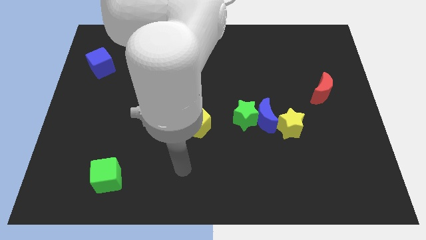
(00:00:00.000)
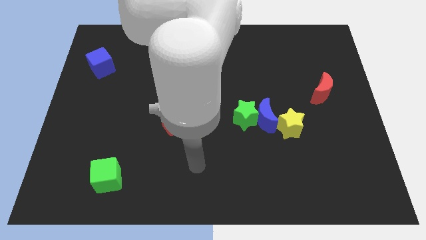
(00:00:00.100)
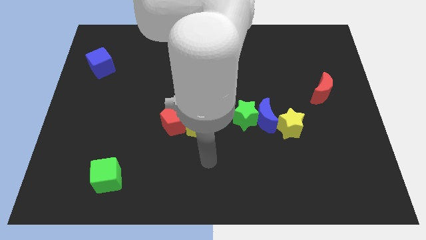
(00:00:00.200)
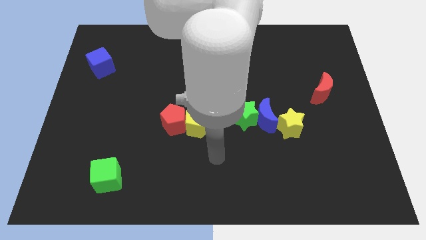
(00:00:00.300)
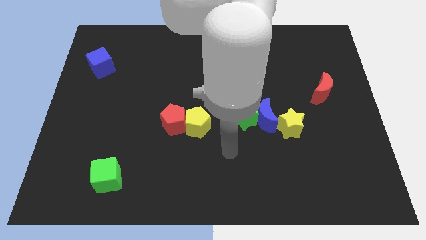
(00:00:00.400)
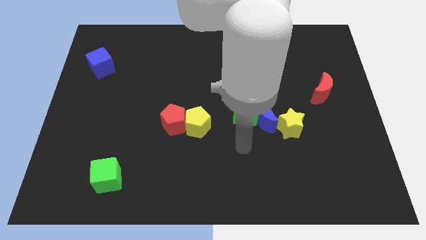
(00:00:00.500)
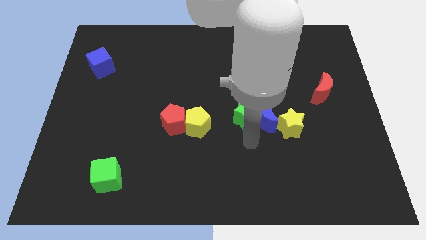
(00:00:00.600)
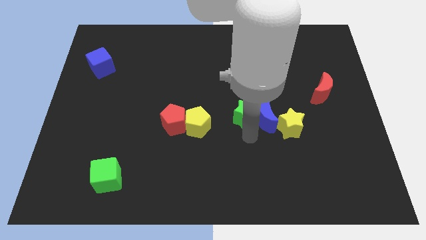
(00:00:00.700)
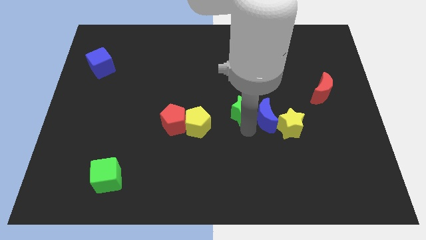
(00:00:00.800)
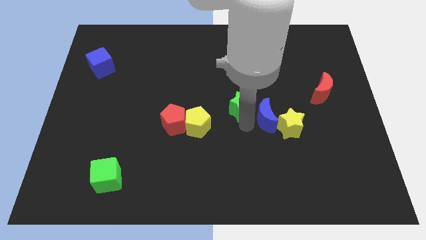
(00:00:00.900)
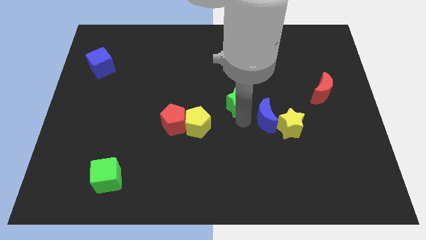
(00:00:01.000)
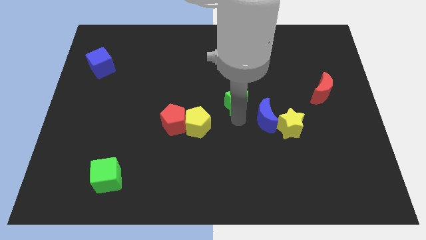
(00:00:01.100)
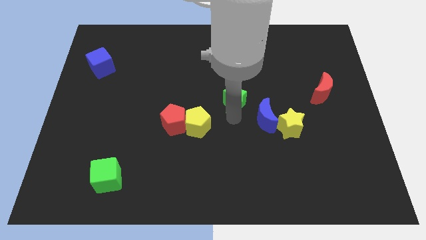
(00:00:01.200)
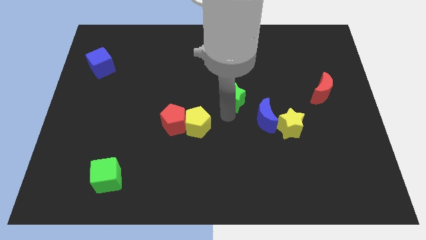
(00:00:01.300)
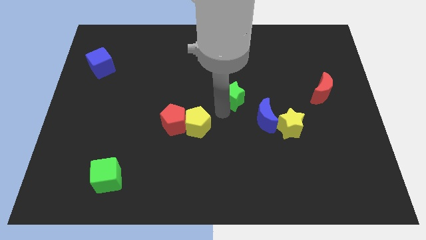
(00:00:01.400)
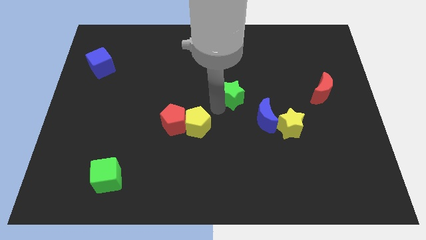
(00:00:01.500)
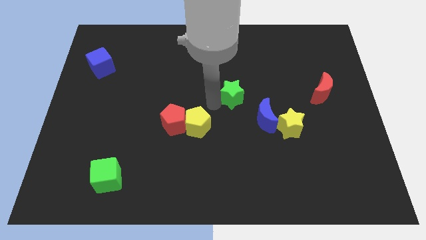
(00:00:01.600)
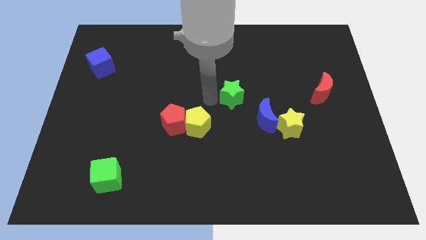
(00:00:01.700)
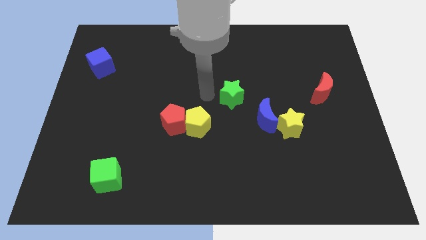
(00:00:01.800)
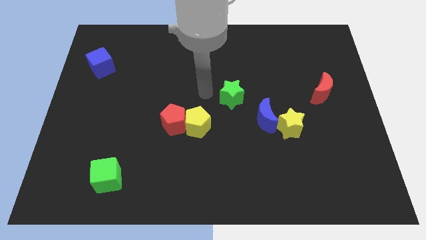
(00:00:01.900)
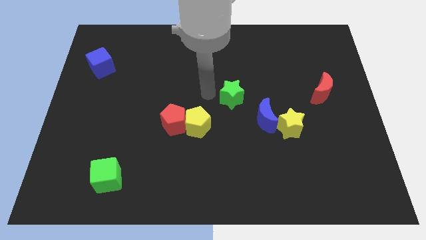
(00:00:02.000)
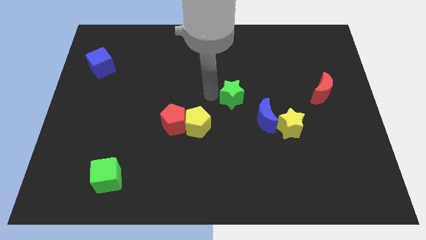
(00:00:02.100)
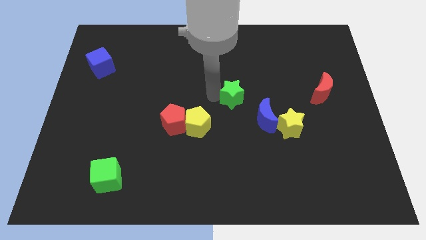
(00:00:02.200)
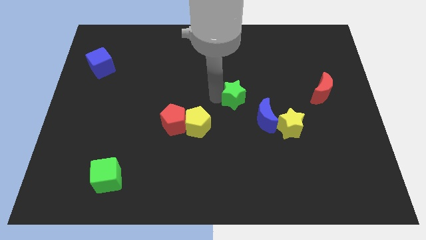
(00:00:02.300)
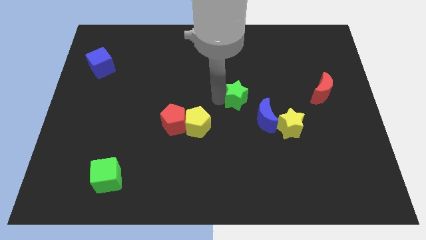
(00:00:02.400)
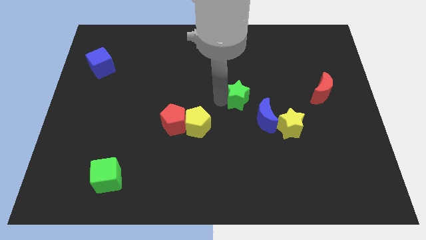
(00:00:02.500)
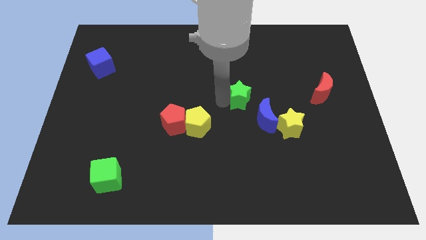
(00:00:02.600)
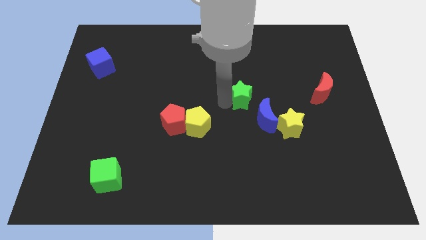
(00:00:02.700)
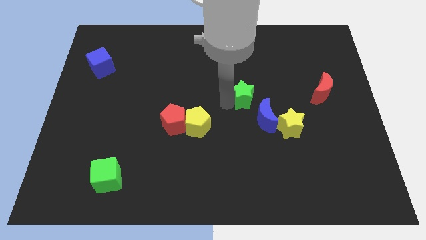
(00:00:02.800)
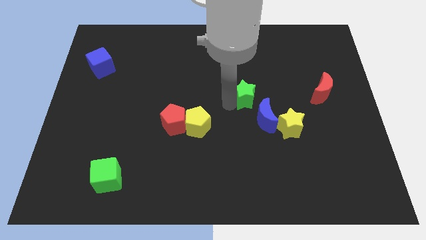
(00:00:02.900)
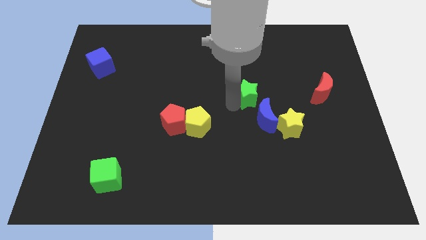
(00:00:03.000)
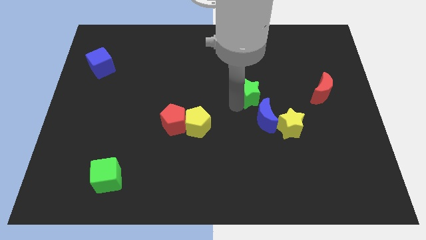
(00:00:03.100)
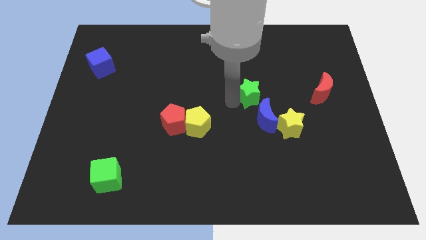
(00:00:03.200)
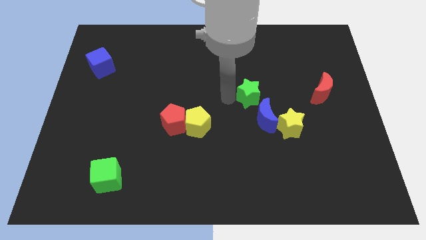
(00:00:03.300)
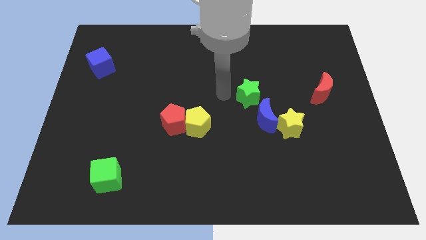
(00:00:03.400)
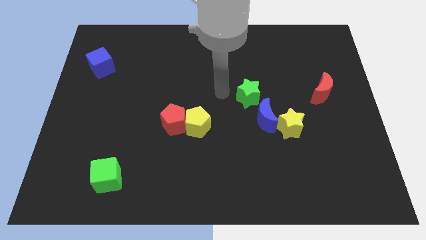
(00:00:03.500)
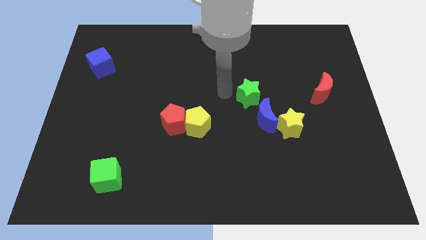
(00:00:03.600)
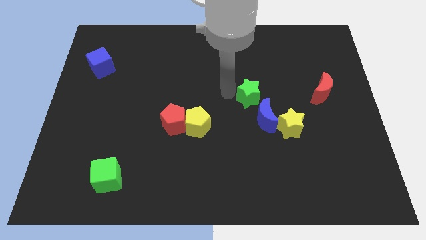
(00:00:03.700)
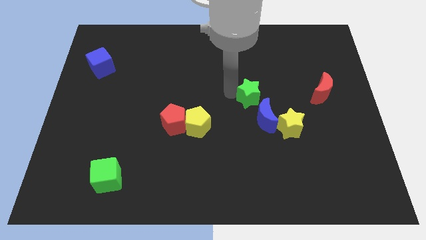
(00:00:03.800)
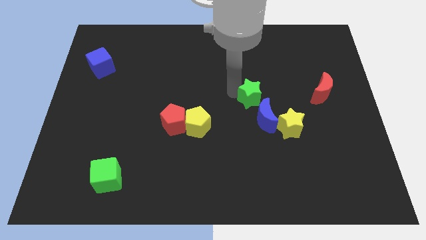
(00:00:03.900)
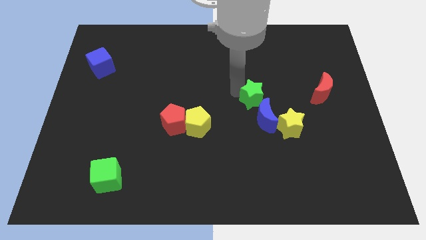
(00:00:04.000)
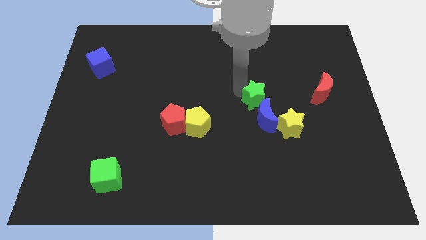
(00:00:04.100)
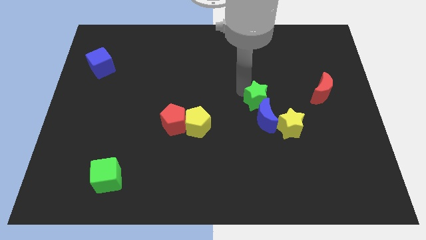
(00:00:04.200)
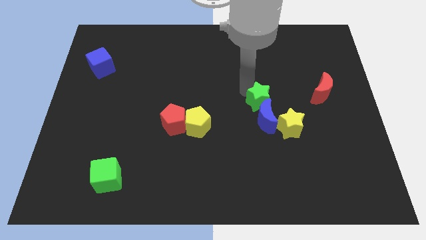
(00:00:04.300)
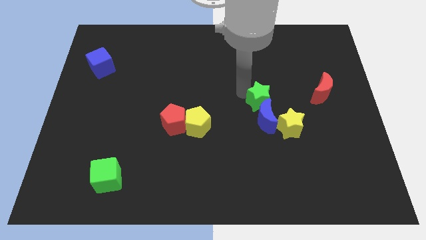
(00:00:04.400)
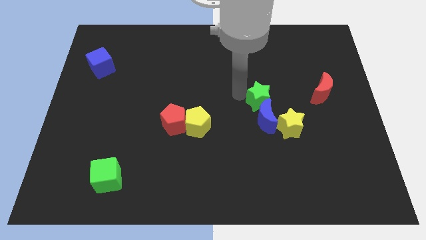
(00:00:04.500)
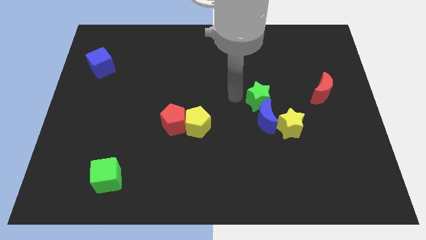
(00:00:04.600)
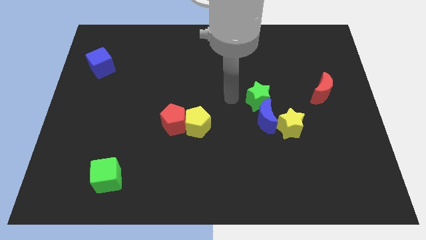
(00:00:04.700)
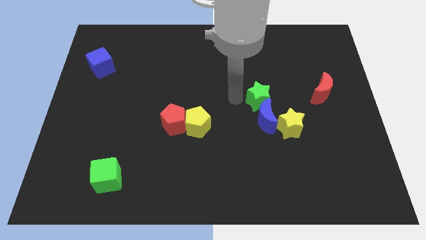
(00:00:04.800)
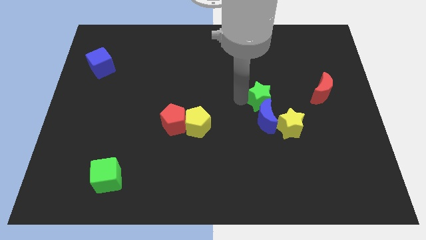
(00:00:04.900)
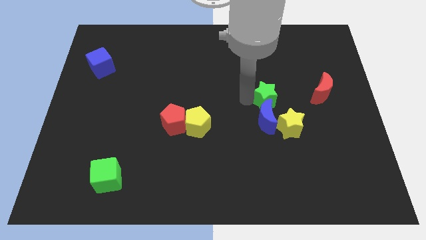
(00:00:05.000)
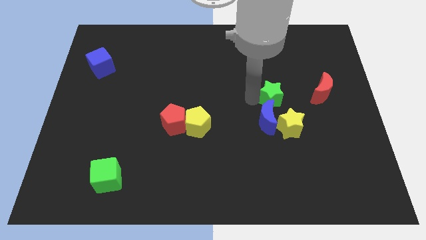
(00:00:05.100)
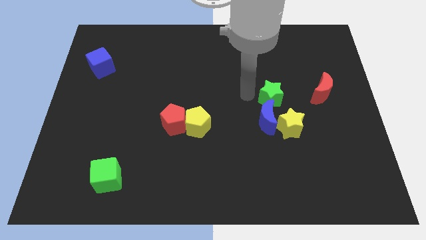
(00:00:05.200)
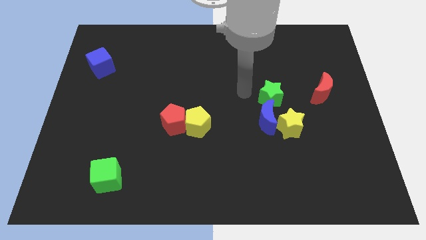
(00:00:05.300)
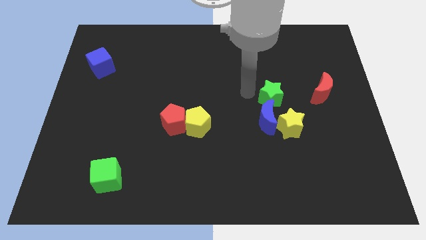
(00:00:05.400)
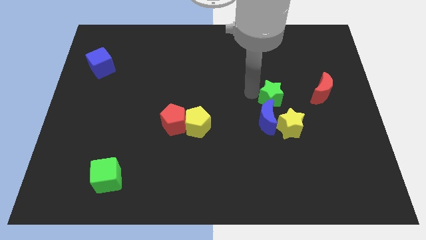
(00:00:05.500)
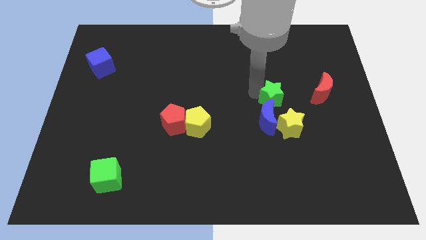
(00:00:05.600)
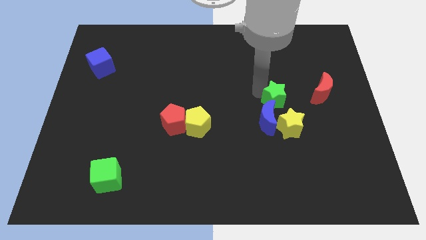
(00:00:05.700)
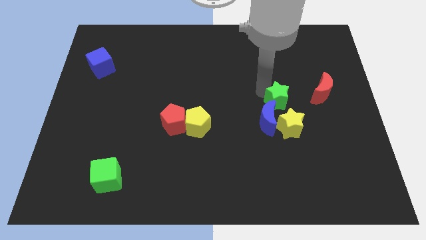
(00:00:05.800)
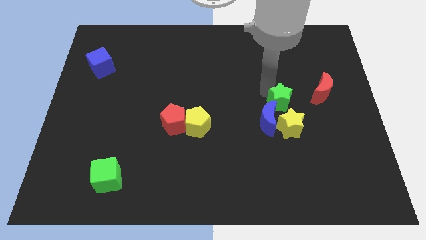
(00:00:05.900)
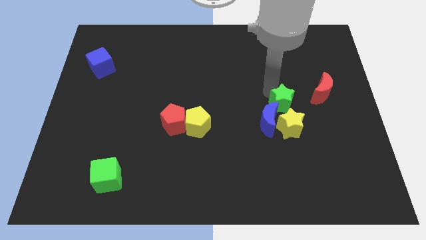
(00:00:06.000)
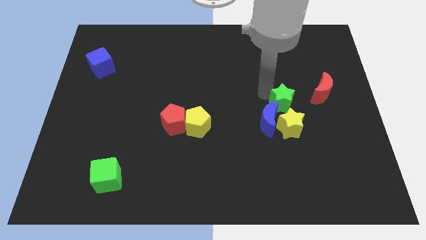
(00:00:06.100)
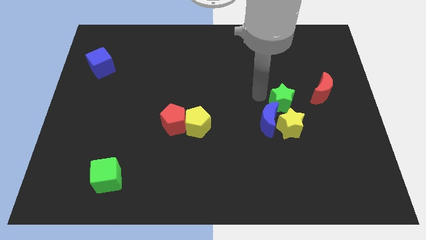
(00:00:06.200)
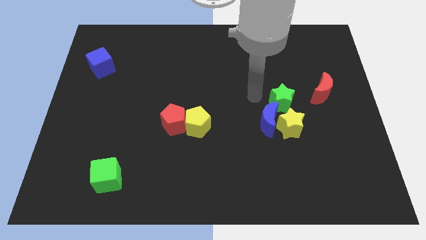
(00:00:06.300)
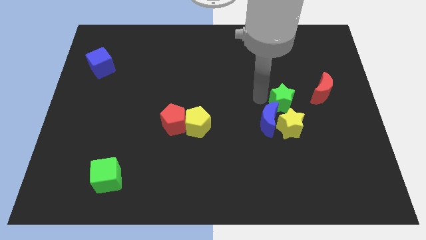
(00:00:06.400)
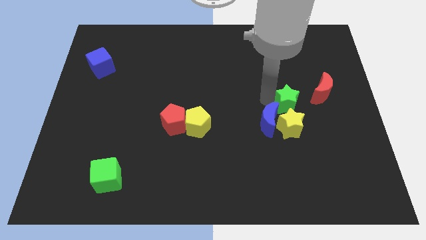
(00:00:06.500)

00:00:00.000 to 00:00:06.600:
put the green star diagonally up and to the right of the yellow star
